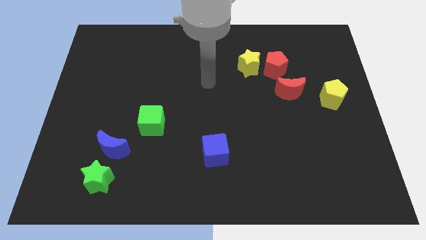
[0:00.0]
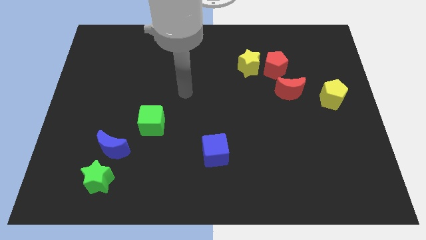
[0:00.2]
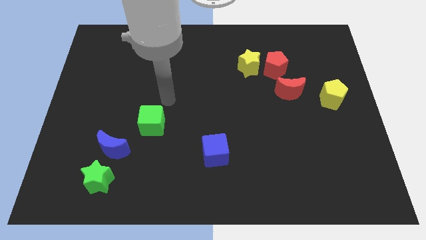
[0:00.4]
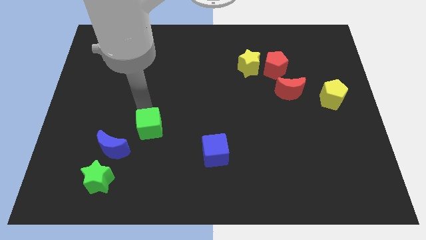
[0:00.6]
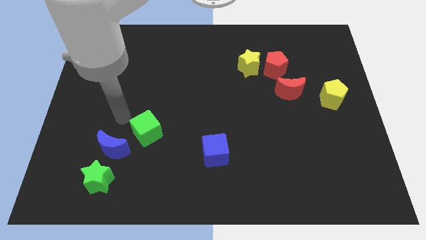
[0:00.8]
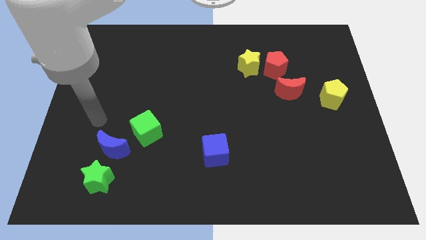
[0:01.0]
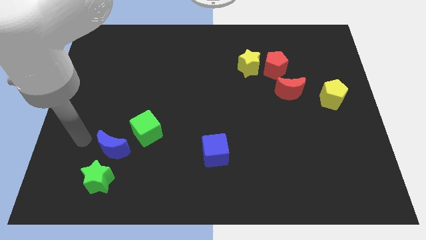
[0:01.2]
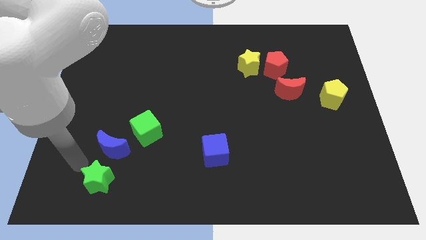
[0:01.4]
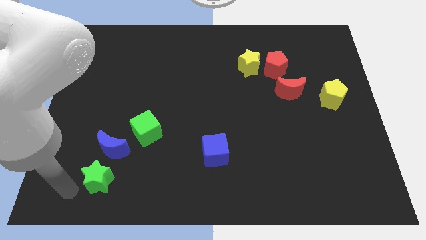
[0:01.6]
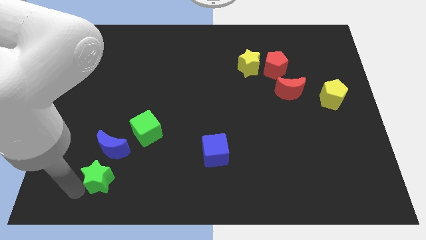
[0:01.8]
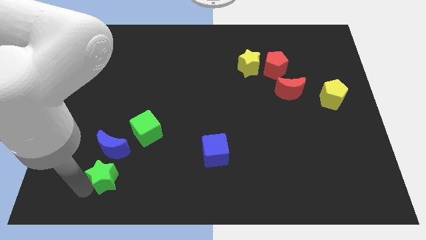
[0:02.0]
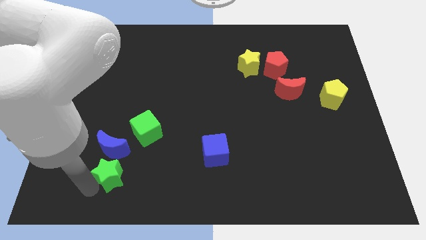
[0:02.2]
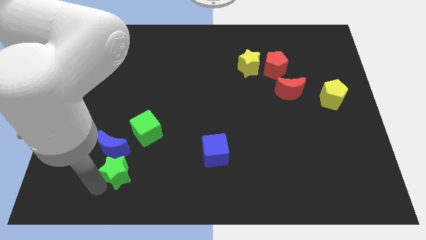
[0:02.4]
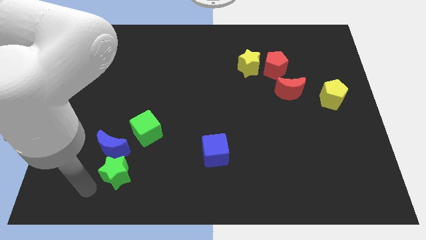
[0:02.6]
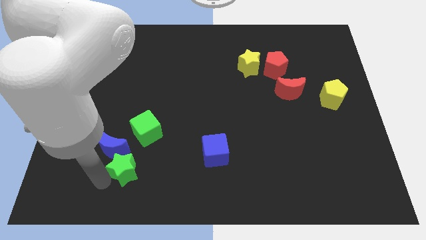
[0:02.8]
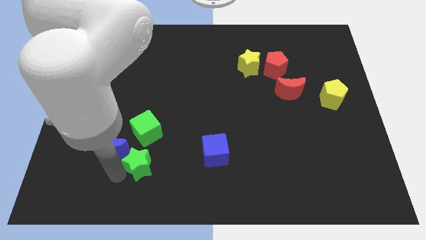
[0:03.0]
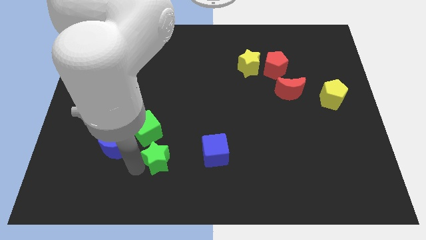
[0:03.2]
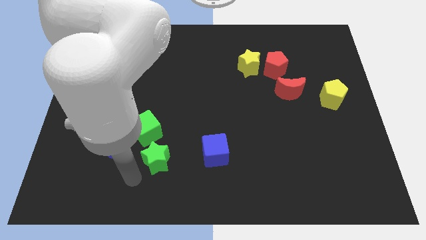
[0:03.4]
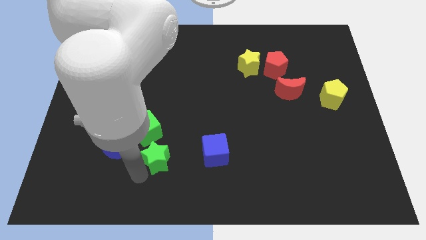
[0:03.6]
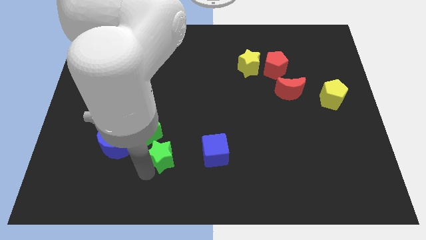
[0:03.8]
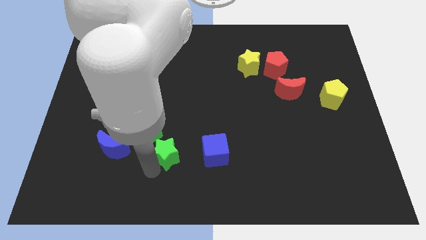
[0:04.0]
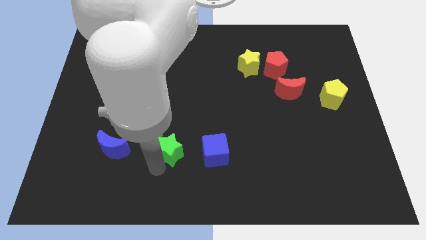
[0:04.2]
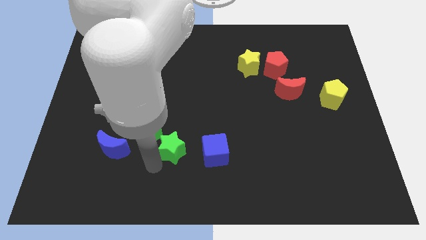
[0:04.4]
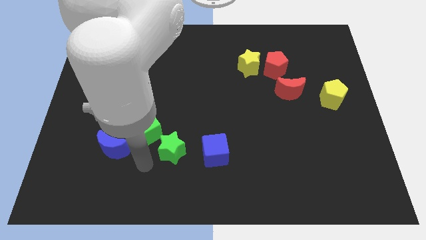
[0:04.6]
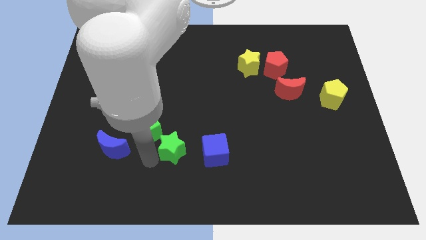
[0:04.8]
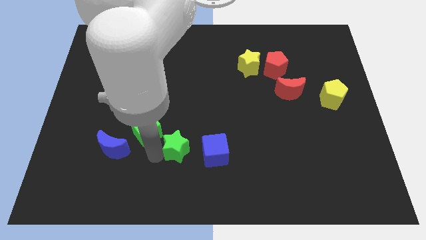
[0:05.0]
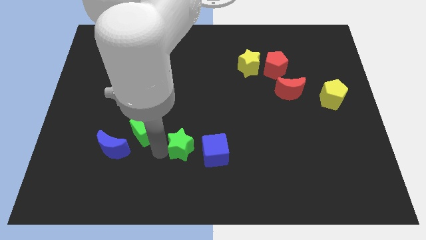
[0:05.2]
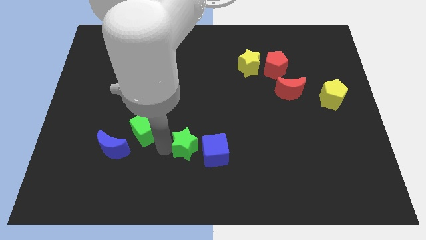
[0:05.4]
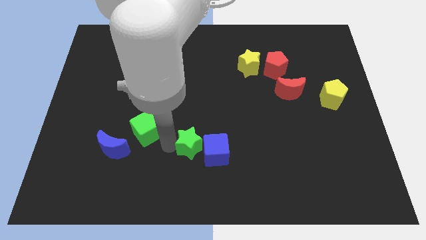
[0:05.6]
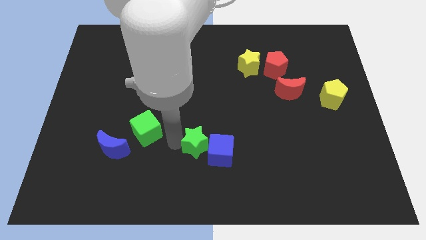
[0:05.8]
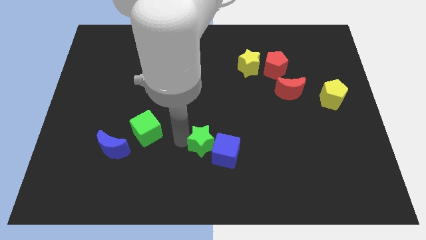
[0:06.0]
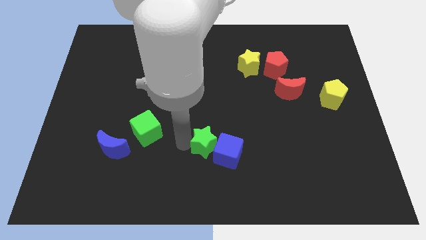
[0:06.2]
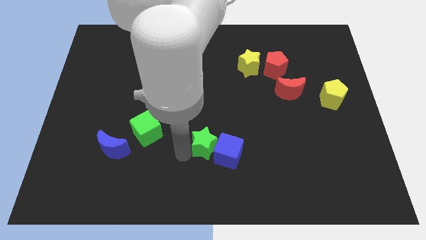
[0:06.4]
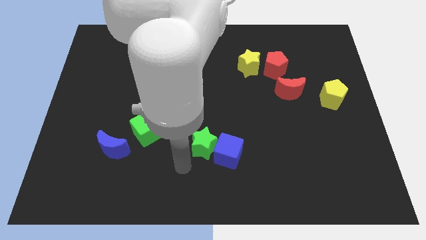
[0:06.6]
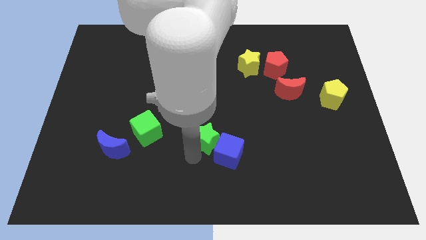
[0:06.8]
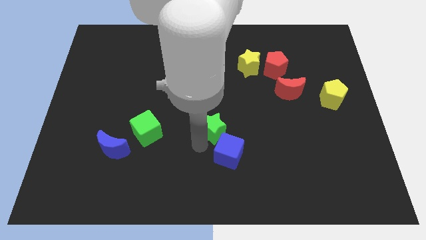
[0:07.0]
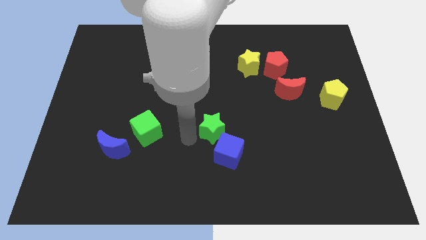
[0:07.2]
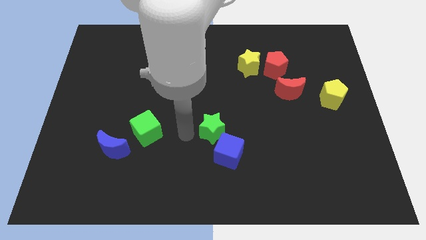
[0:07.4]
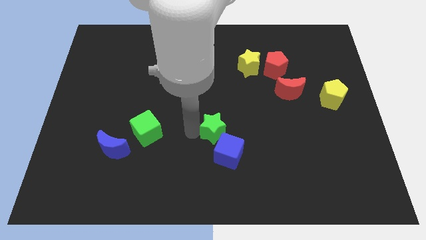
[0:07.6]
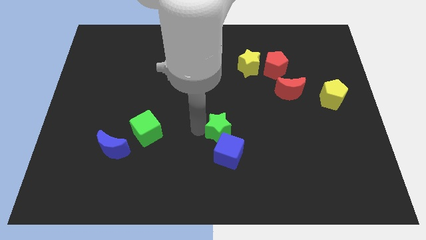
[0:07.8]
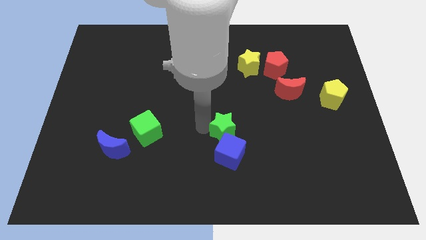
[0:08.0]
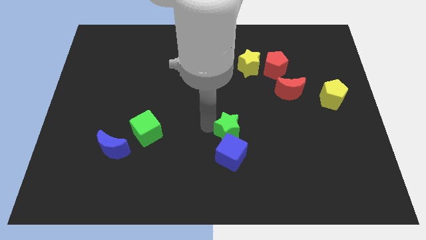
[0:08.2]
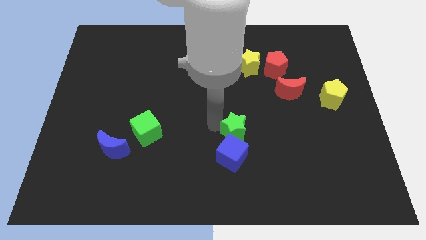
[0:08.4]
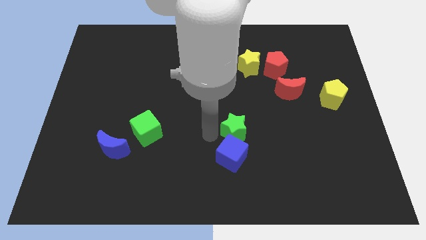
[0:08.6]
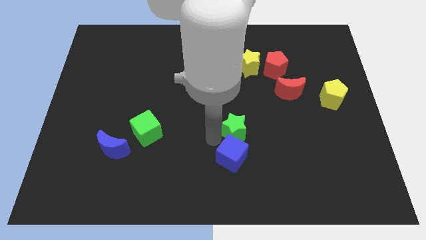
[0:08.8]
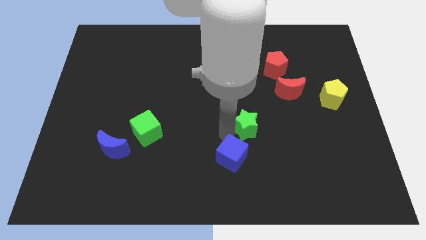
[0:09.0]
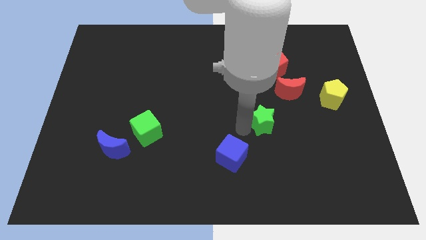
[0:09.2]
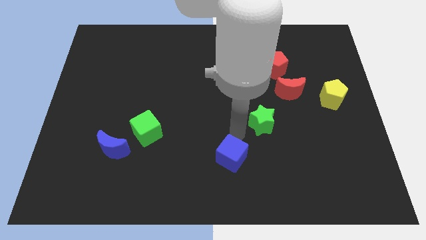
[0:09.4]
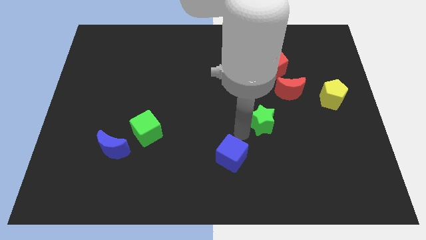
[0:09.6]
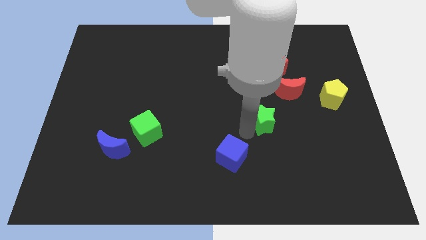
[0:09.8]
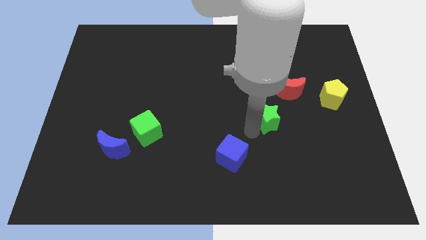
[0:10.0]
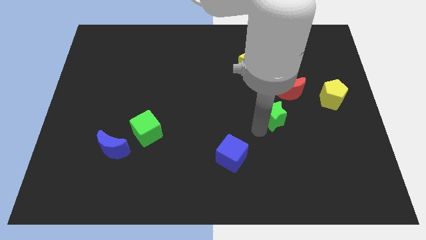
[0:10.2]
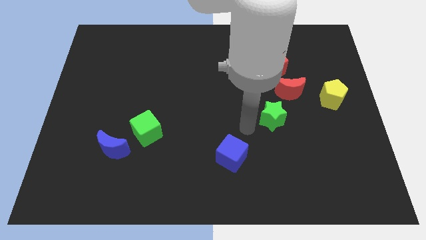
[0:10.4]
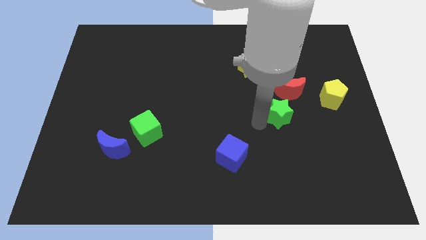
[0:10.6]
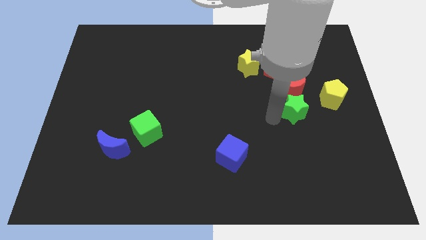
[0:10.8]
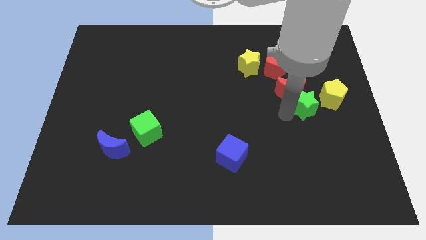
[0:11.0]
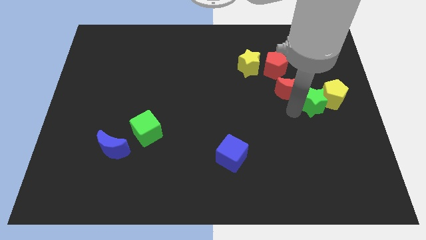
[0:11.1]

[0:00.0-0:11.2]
slide the green star next to the yellow pentagon

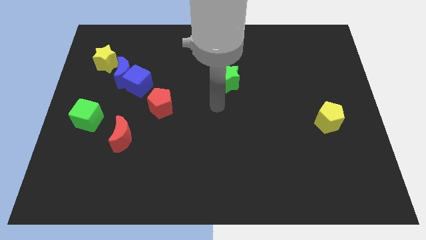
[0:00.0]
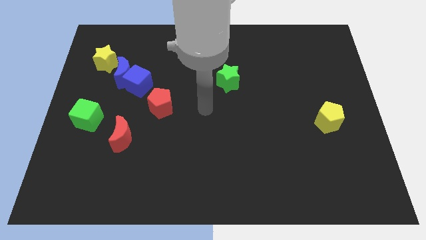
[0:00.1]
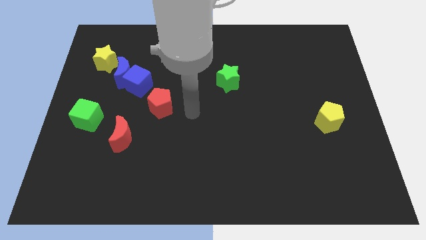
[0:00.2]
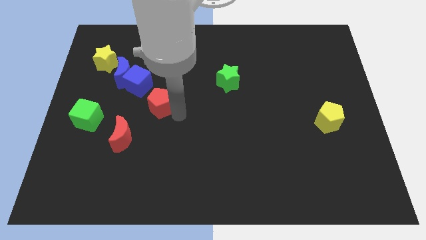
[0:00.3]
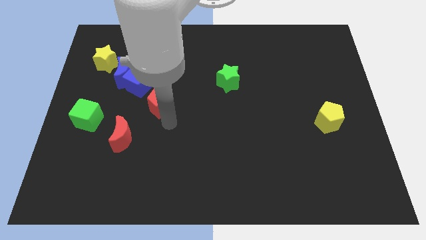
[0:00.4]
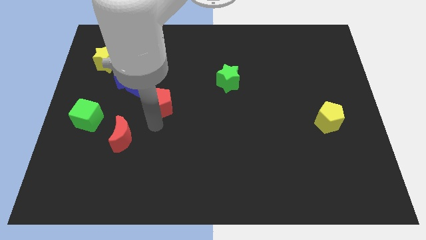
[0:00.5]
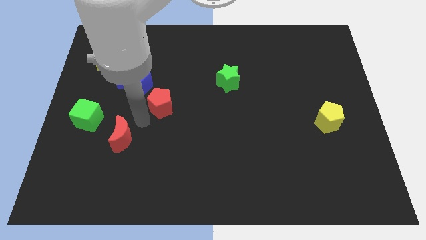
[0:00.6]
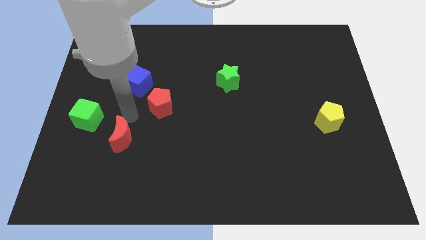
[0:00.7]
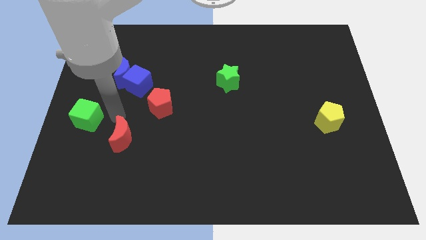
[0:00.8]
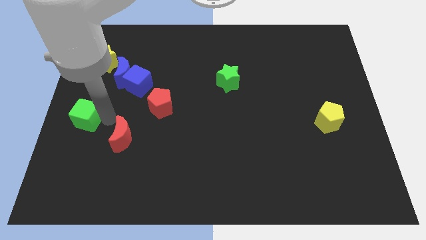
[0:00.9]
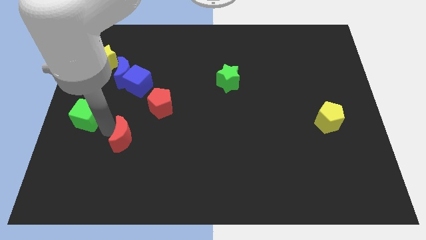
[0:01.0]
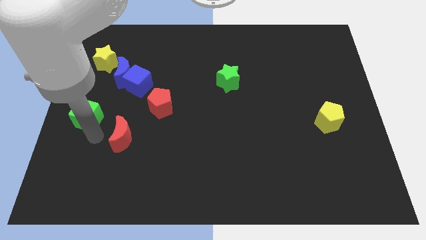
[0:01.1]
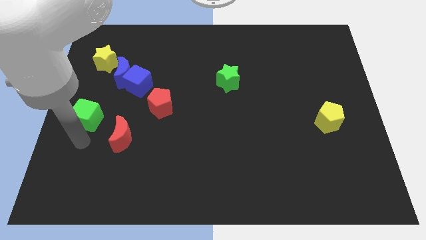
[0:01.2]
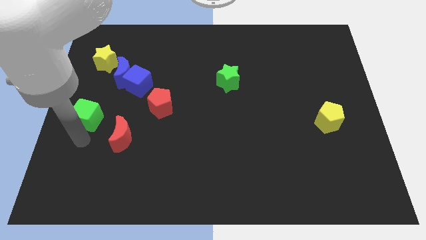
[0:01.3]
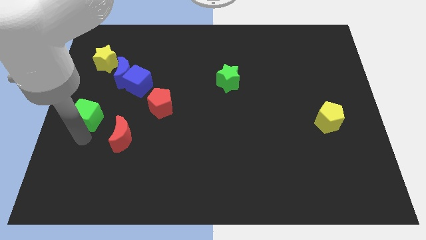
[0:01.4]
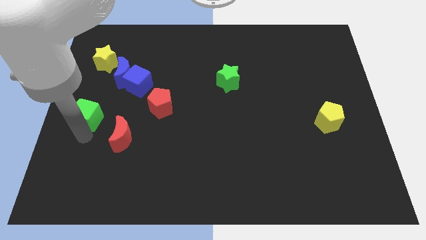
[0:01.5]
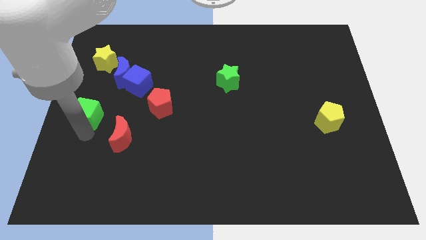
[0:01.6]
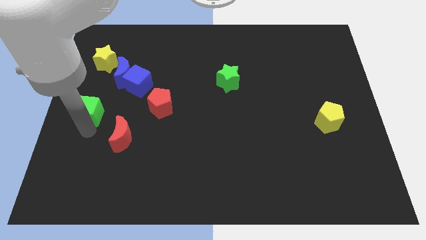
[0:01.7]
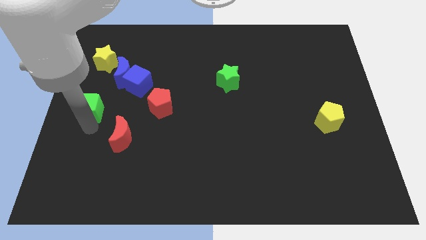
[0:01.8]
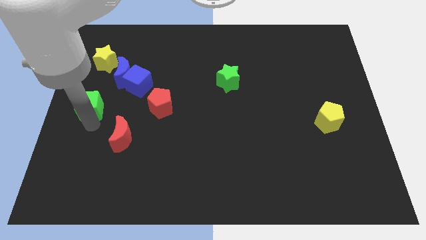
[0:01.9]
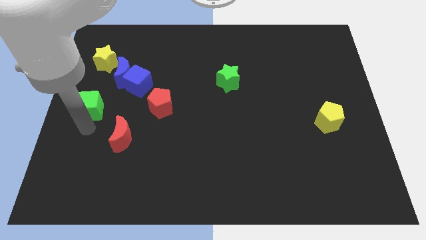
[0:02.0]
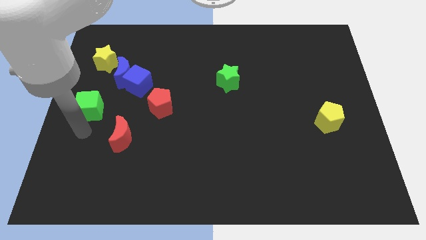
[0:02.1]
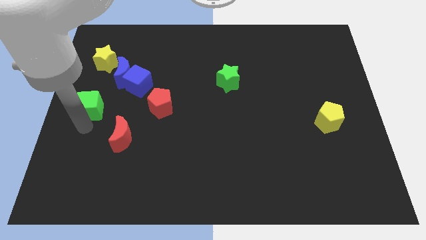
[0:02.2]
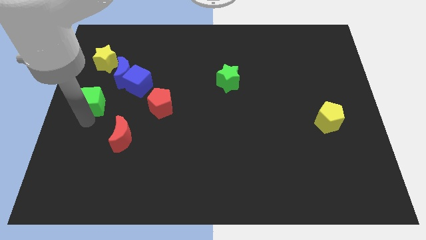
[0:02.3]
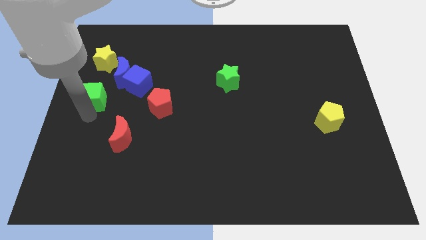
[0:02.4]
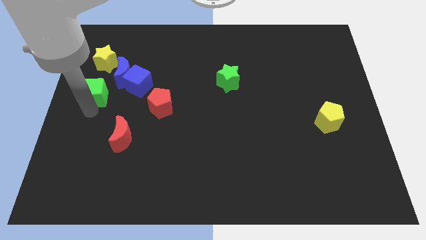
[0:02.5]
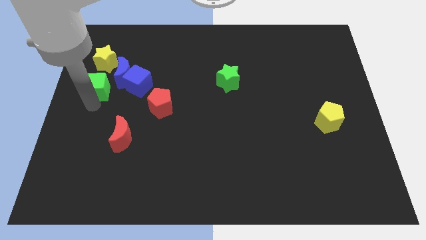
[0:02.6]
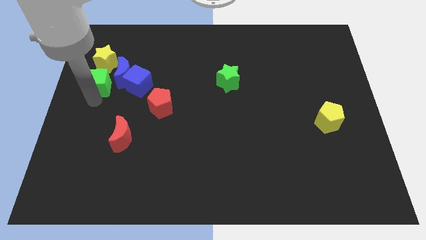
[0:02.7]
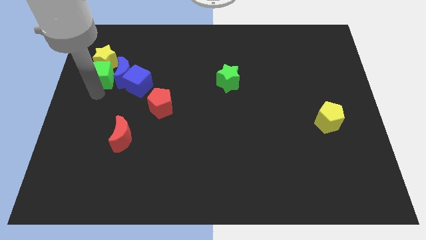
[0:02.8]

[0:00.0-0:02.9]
put the green cube close to the yellow star
